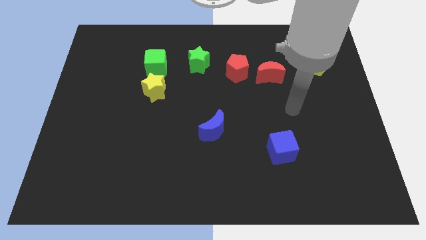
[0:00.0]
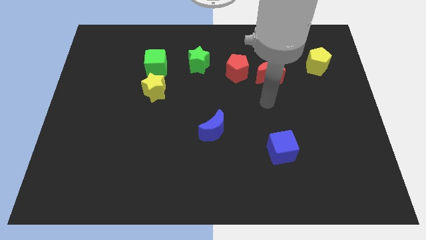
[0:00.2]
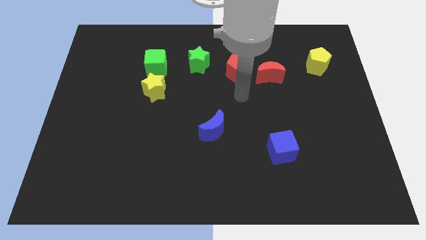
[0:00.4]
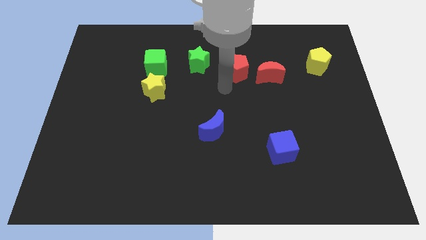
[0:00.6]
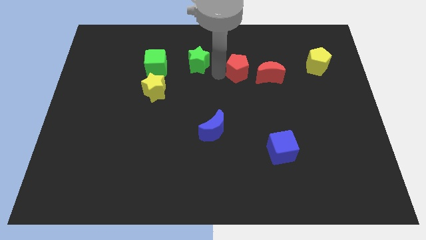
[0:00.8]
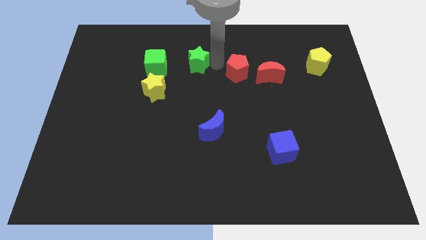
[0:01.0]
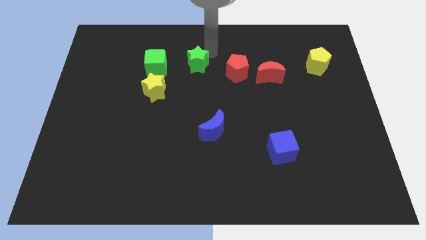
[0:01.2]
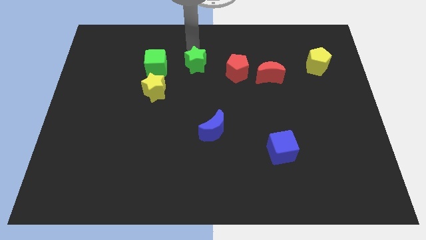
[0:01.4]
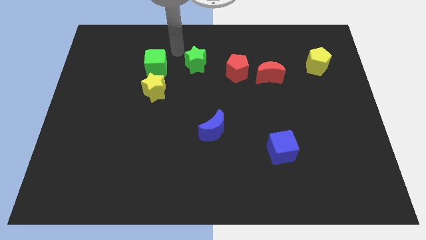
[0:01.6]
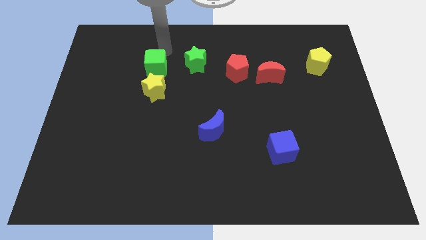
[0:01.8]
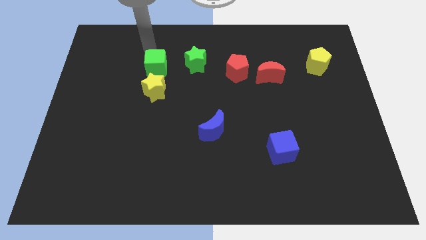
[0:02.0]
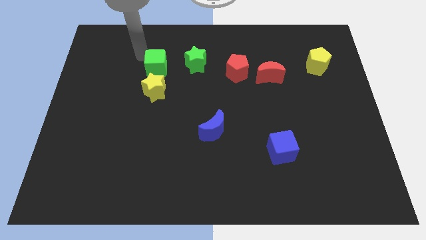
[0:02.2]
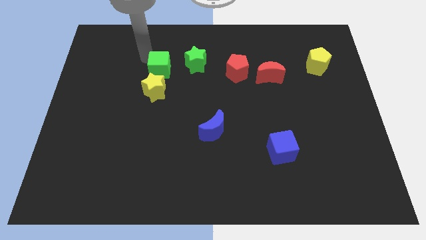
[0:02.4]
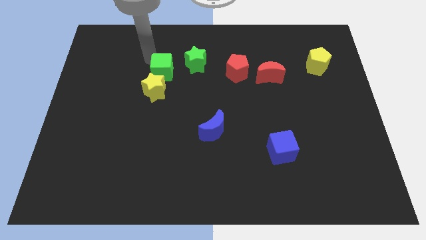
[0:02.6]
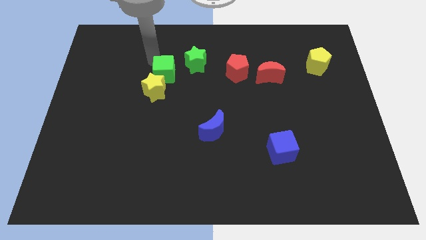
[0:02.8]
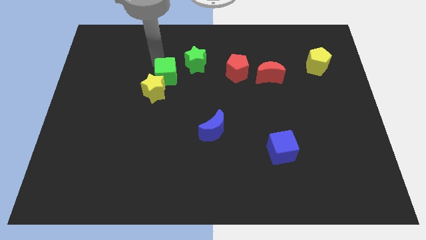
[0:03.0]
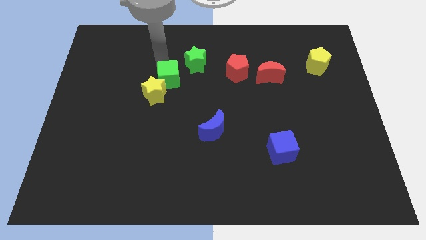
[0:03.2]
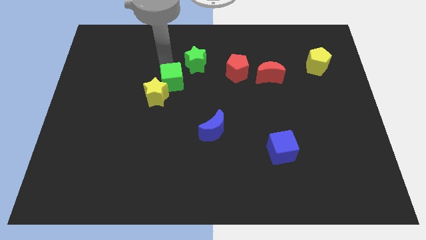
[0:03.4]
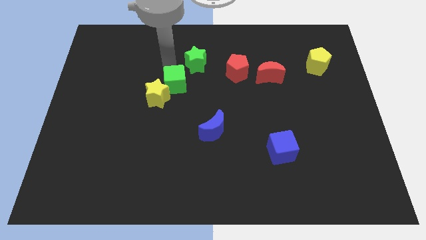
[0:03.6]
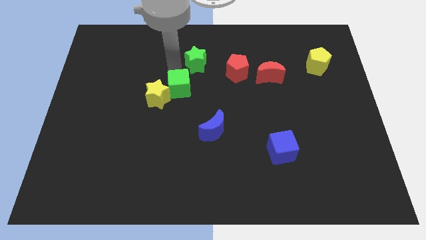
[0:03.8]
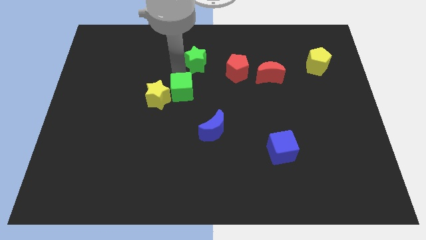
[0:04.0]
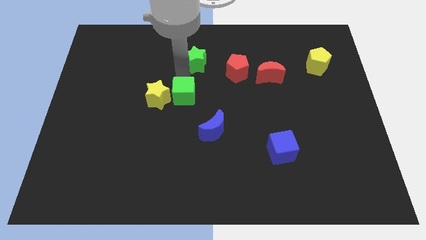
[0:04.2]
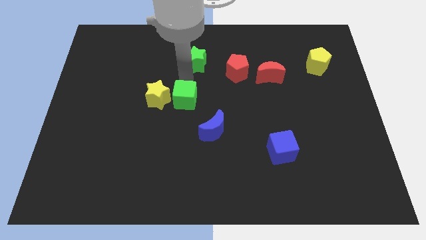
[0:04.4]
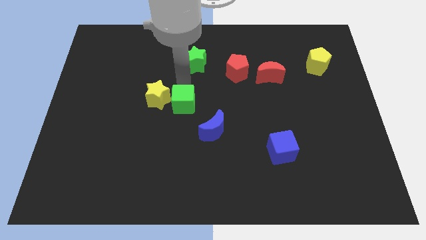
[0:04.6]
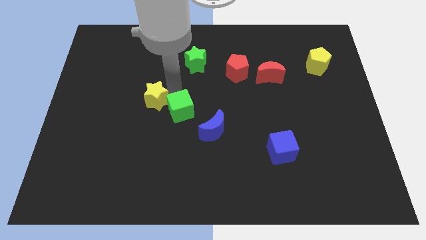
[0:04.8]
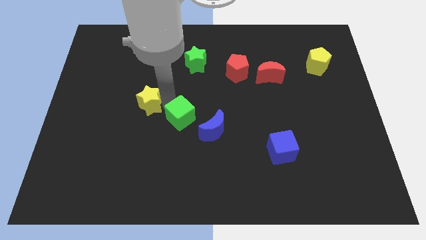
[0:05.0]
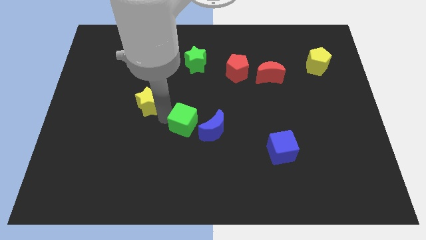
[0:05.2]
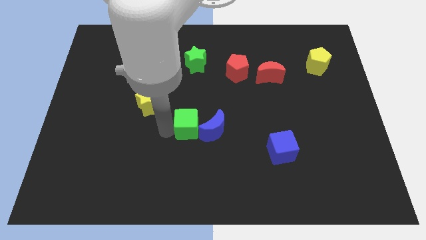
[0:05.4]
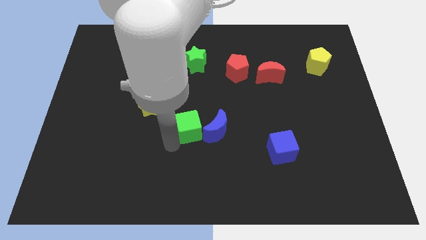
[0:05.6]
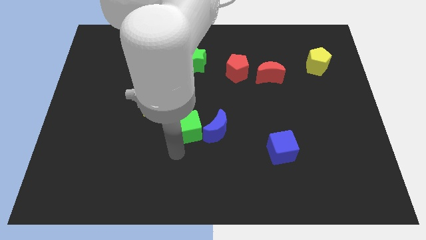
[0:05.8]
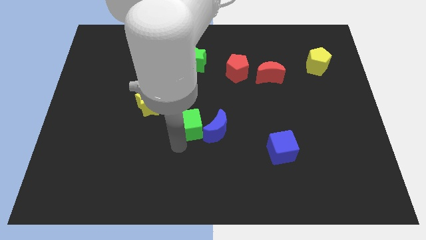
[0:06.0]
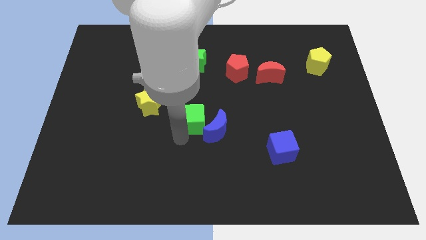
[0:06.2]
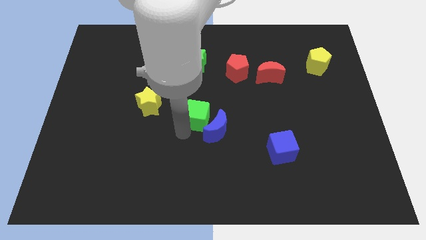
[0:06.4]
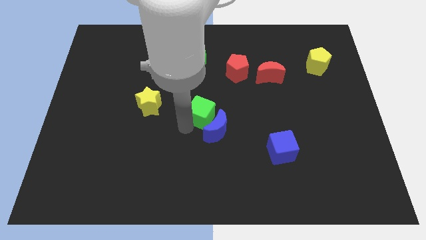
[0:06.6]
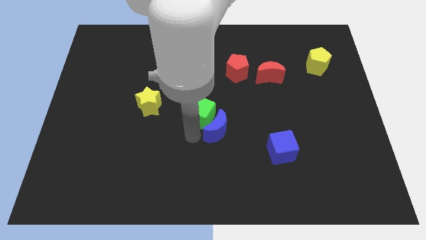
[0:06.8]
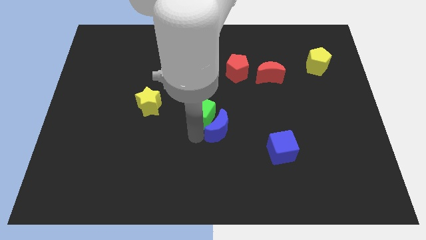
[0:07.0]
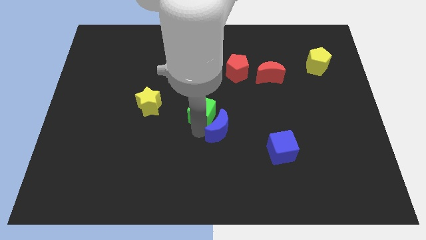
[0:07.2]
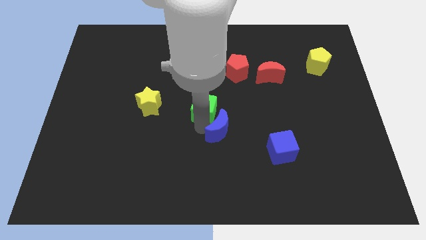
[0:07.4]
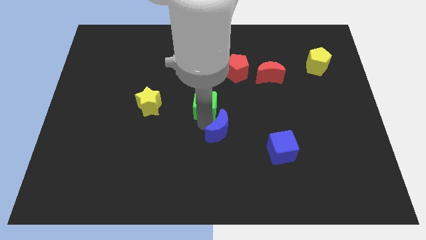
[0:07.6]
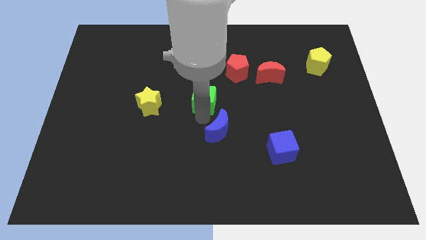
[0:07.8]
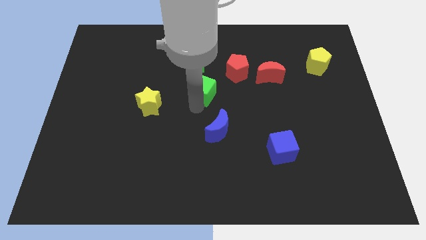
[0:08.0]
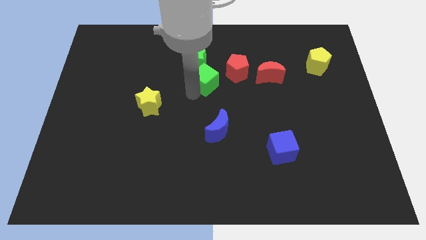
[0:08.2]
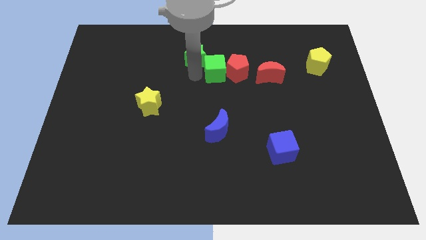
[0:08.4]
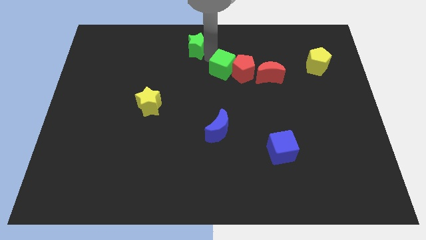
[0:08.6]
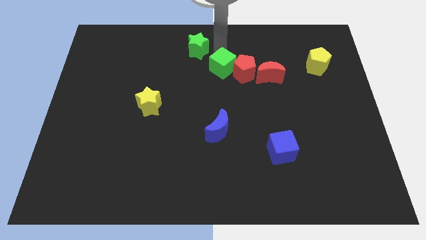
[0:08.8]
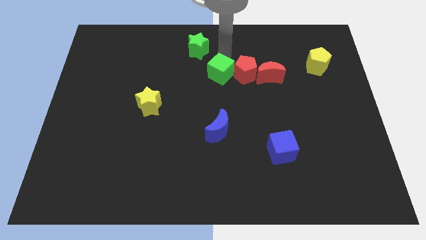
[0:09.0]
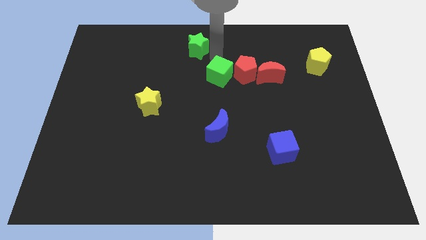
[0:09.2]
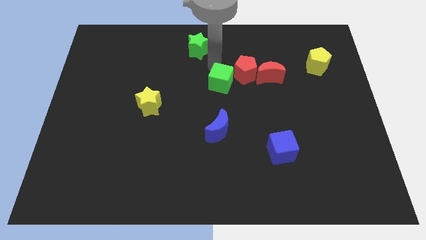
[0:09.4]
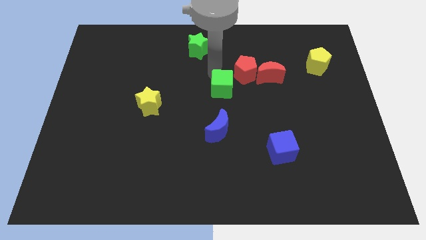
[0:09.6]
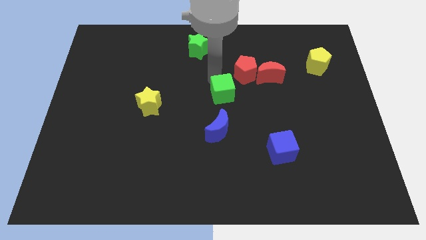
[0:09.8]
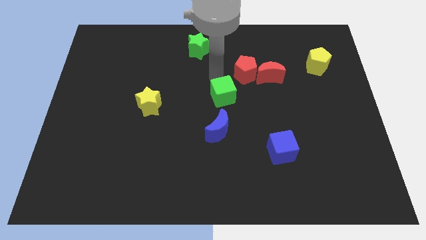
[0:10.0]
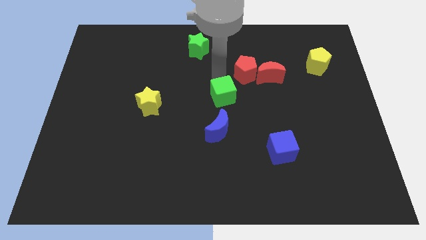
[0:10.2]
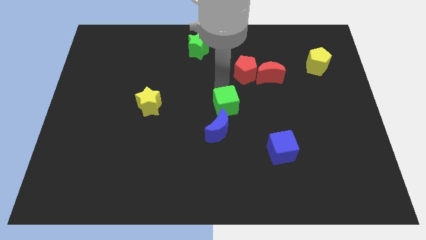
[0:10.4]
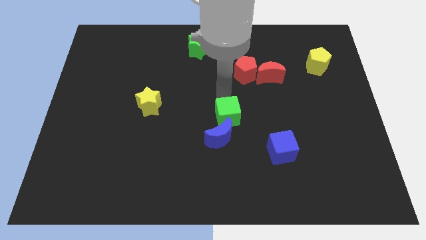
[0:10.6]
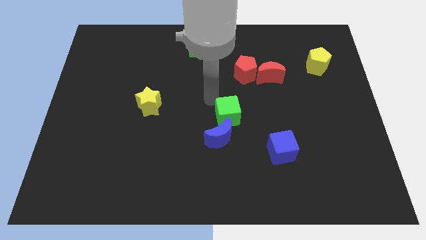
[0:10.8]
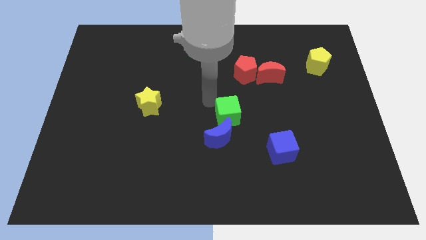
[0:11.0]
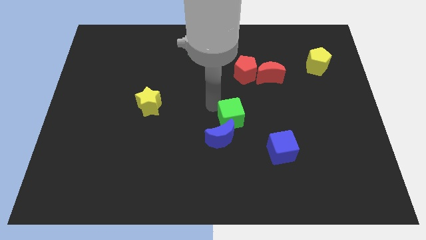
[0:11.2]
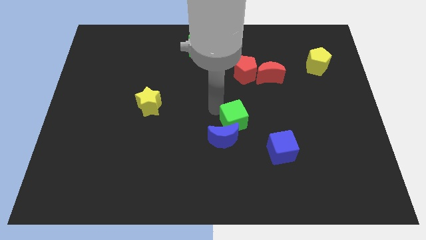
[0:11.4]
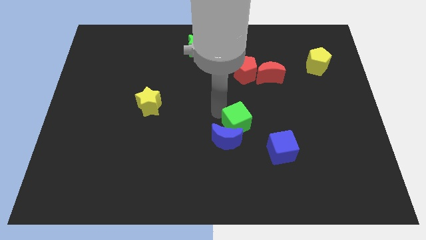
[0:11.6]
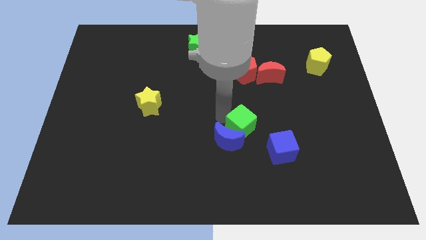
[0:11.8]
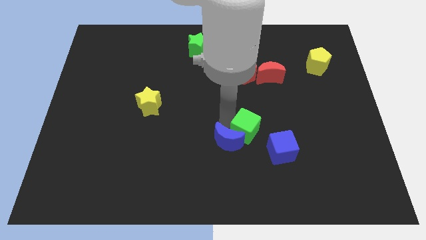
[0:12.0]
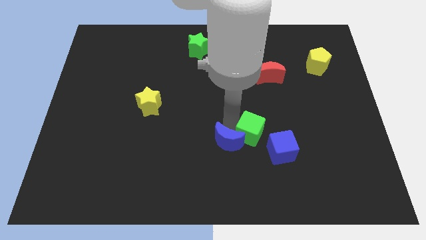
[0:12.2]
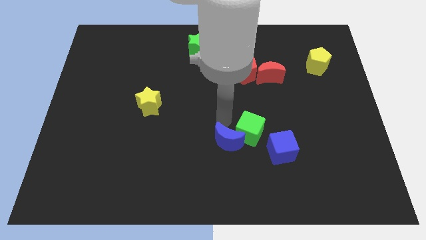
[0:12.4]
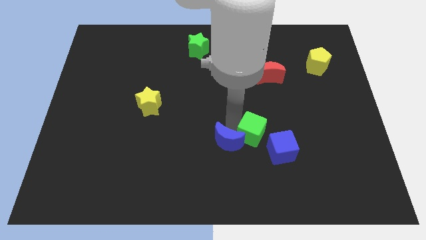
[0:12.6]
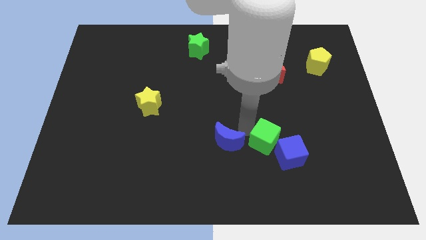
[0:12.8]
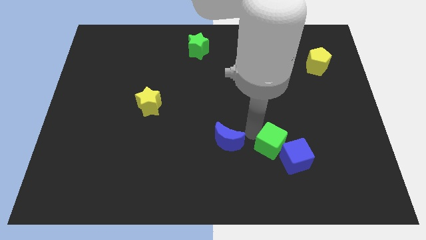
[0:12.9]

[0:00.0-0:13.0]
slide the green cube towards the blue cube

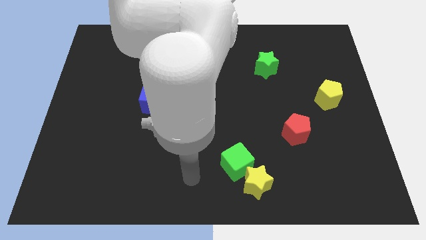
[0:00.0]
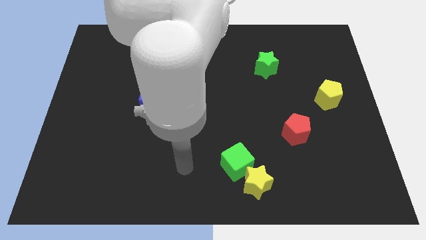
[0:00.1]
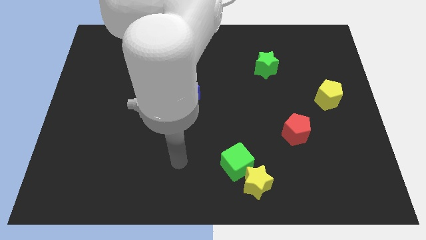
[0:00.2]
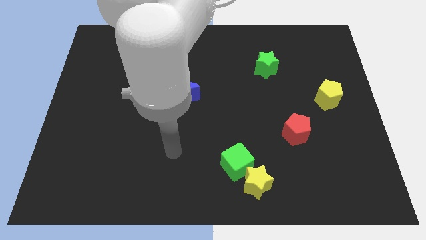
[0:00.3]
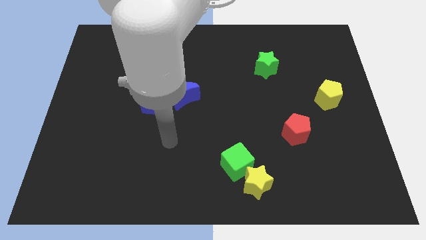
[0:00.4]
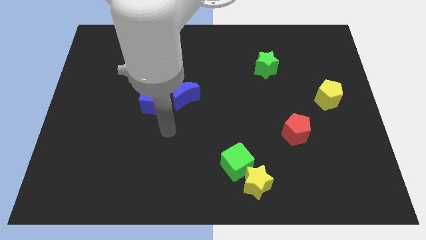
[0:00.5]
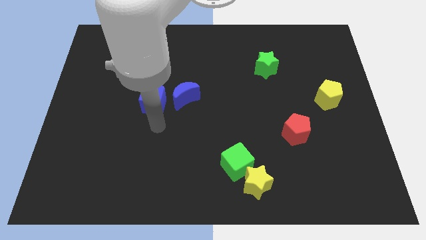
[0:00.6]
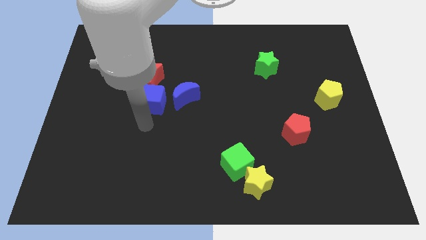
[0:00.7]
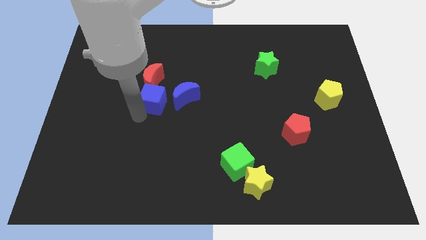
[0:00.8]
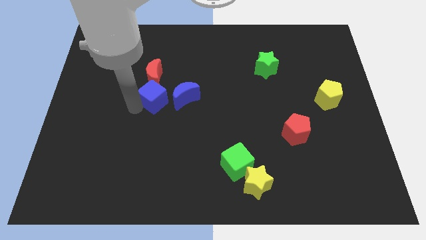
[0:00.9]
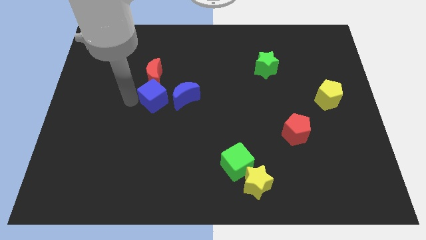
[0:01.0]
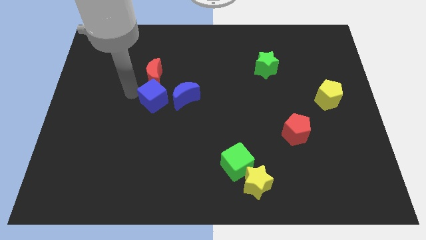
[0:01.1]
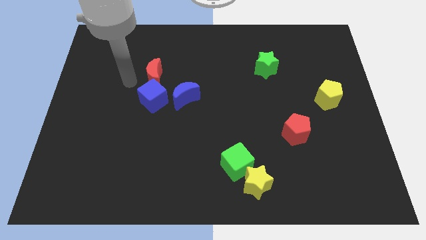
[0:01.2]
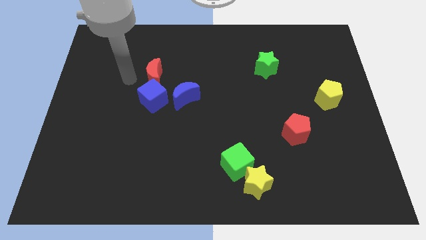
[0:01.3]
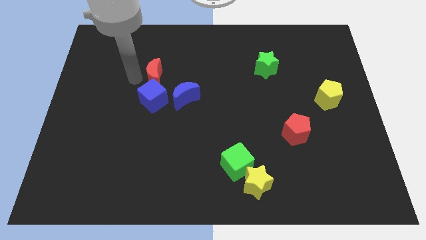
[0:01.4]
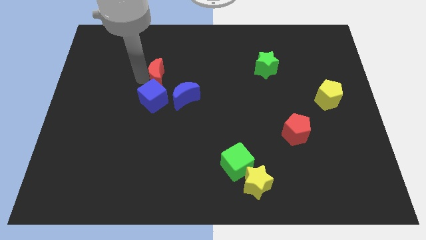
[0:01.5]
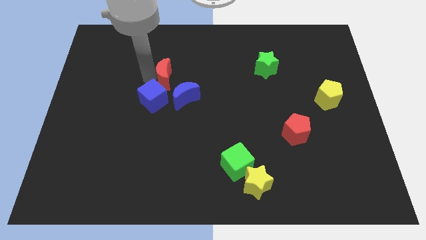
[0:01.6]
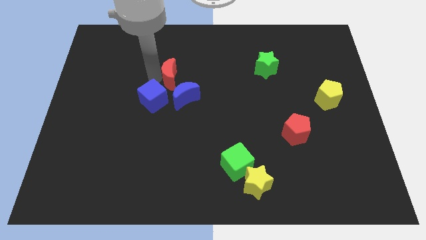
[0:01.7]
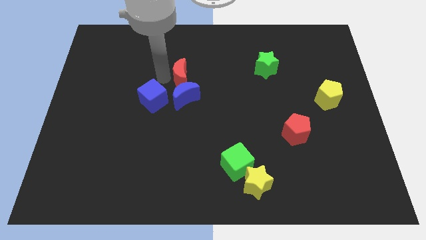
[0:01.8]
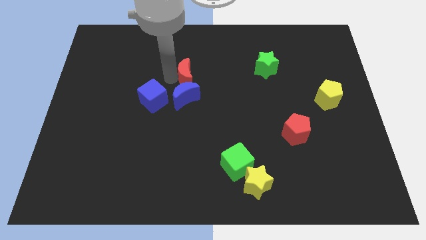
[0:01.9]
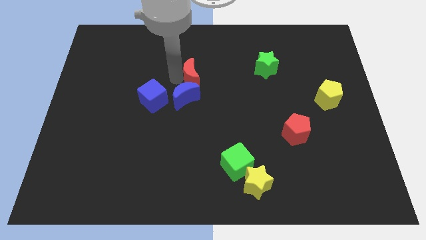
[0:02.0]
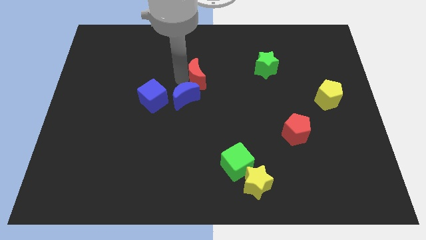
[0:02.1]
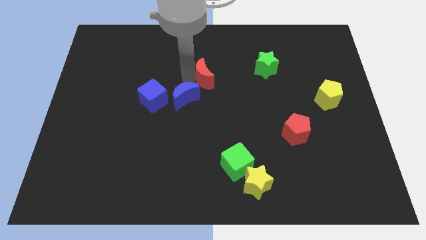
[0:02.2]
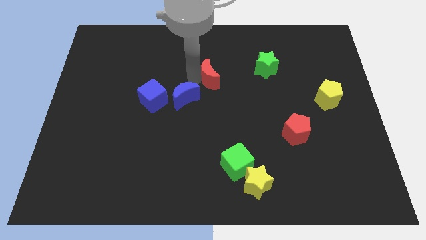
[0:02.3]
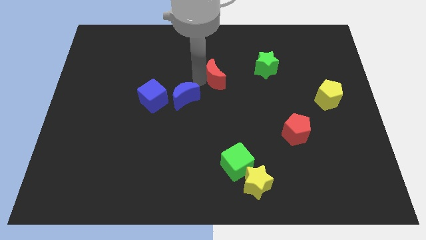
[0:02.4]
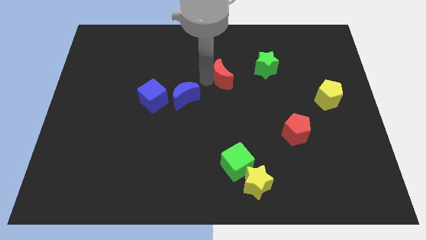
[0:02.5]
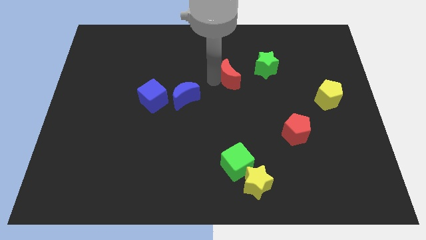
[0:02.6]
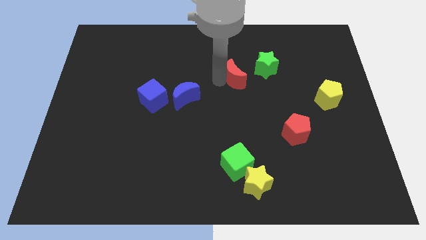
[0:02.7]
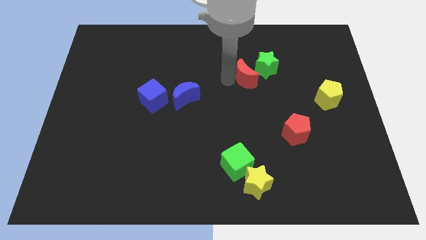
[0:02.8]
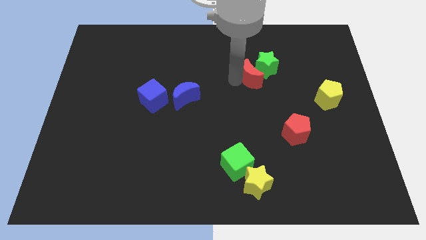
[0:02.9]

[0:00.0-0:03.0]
push the red moon close to the green star
